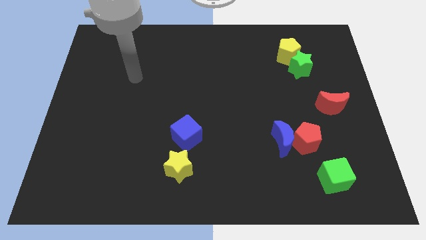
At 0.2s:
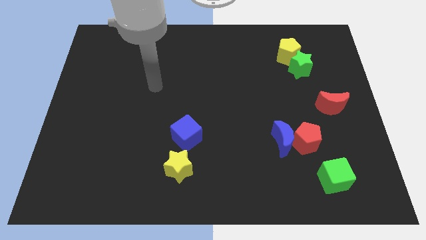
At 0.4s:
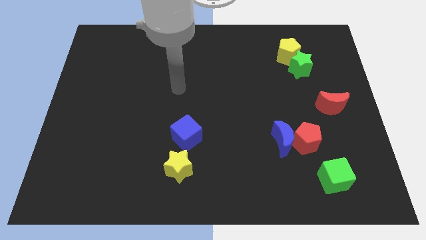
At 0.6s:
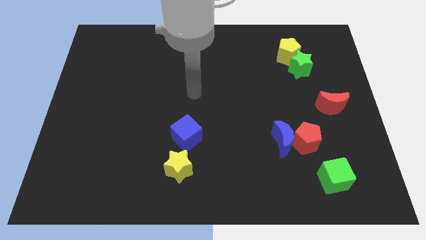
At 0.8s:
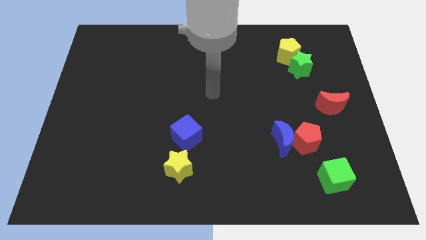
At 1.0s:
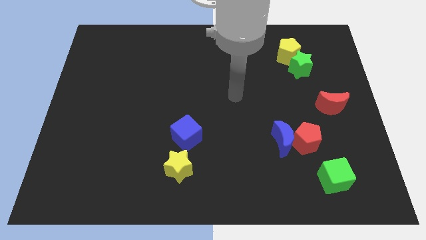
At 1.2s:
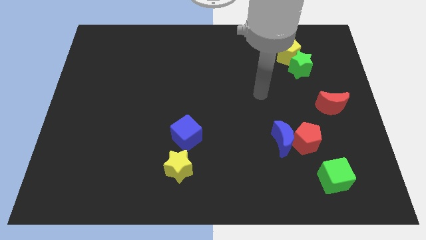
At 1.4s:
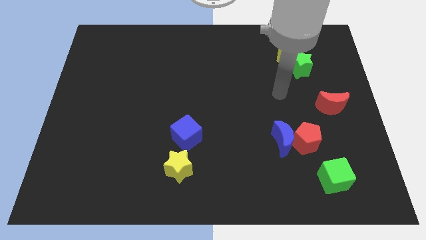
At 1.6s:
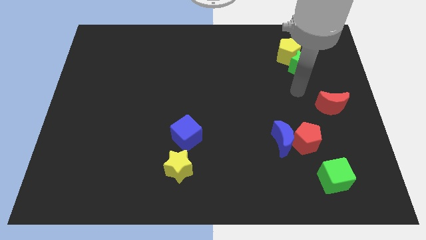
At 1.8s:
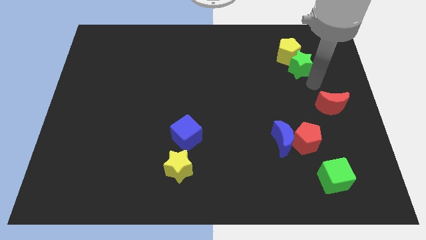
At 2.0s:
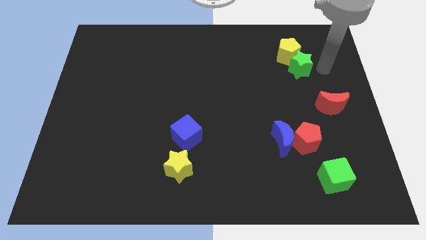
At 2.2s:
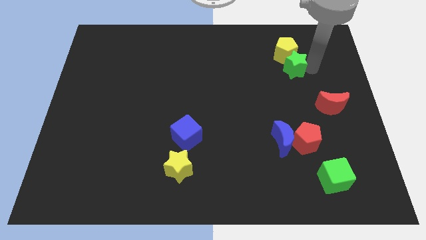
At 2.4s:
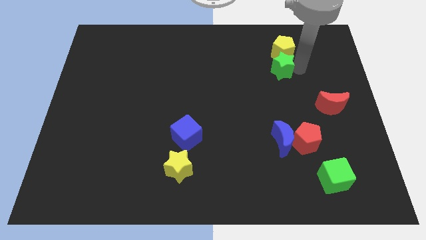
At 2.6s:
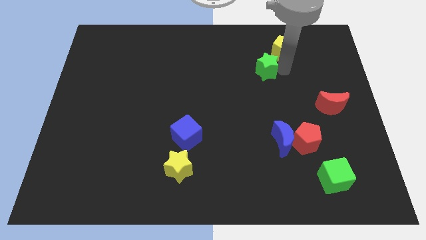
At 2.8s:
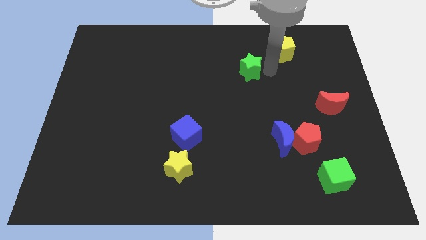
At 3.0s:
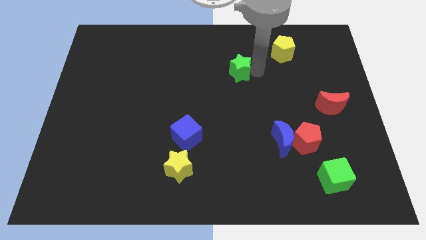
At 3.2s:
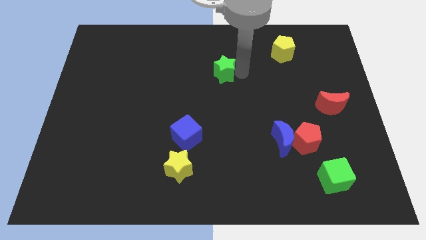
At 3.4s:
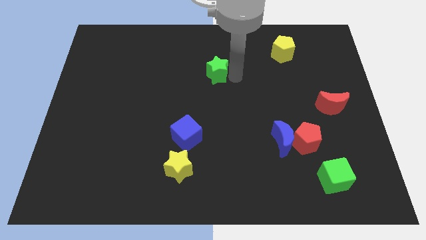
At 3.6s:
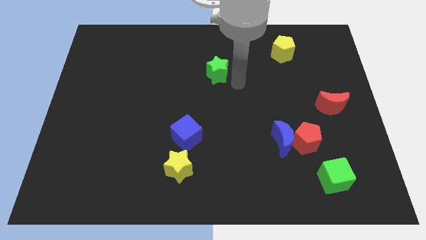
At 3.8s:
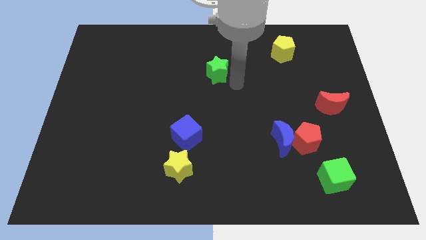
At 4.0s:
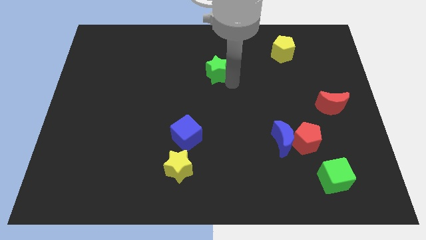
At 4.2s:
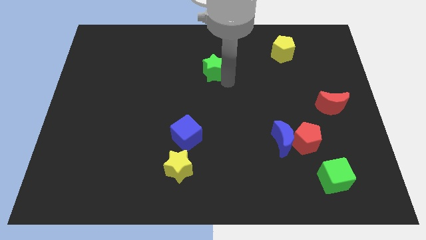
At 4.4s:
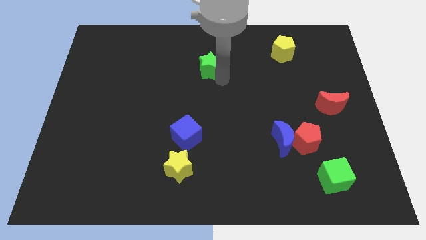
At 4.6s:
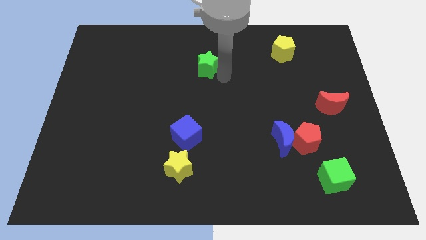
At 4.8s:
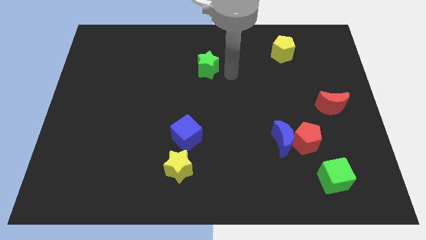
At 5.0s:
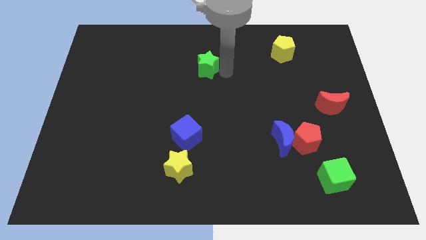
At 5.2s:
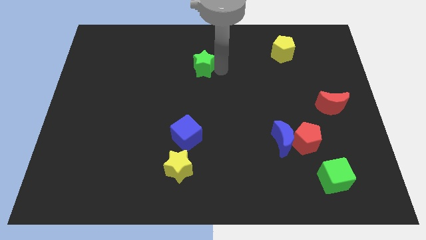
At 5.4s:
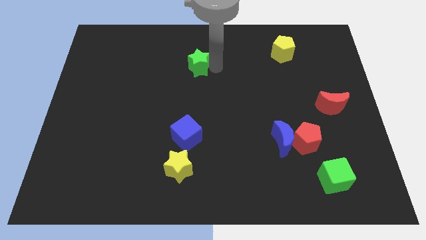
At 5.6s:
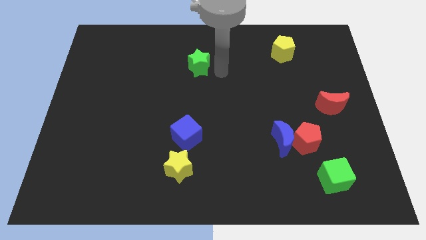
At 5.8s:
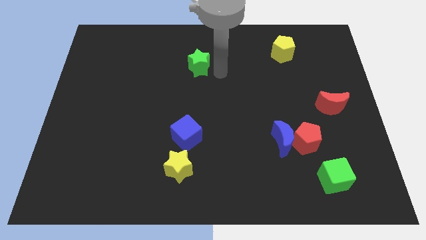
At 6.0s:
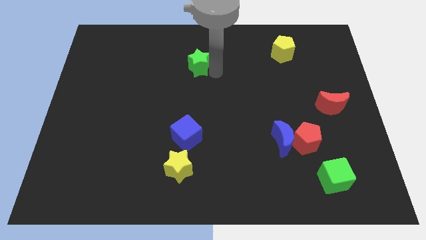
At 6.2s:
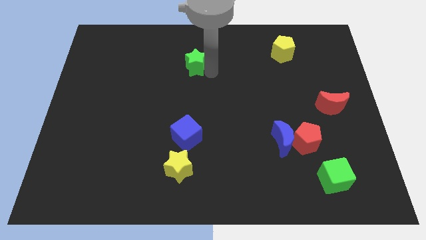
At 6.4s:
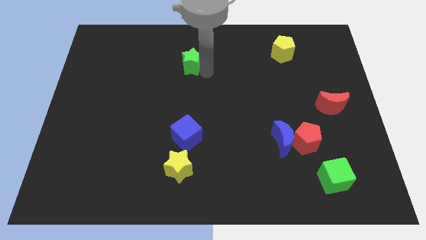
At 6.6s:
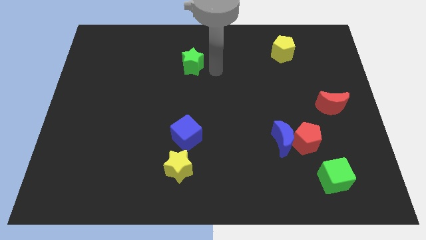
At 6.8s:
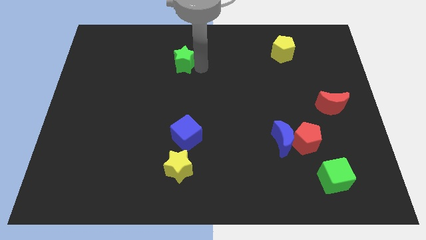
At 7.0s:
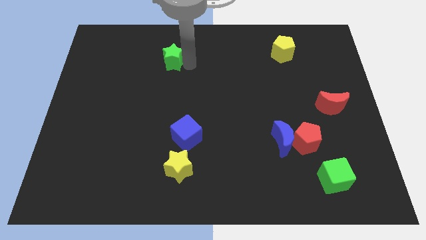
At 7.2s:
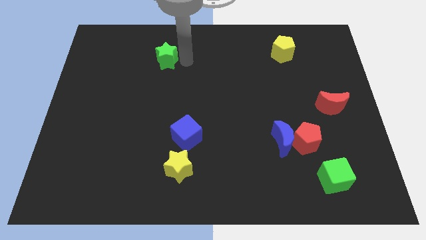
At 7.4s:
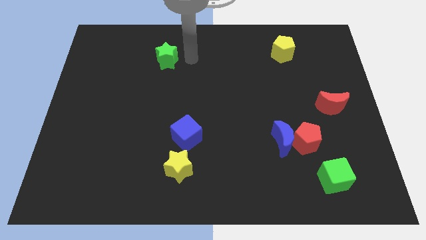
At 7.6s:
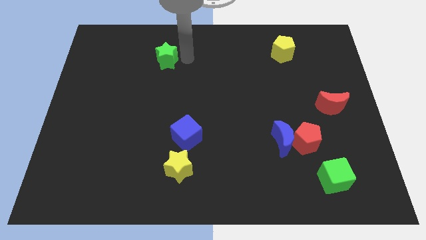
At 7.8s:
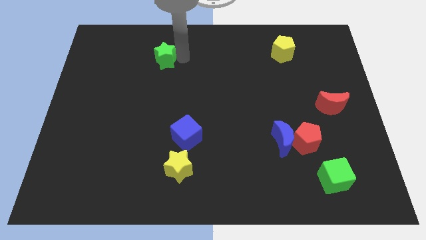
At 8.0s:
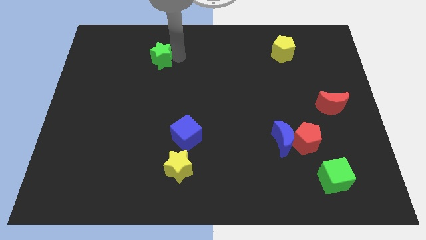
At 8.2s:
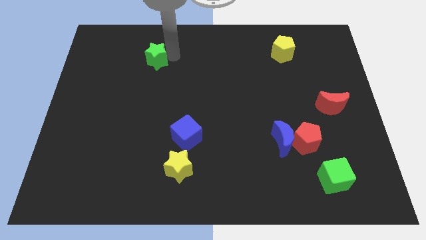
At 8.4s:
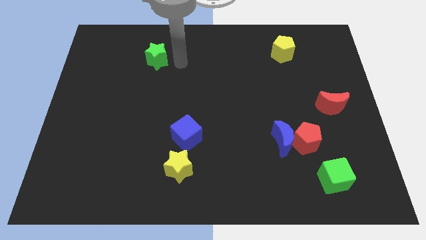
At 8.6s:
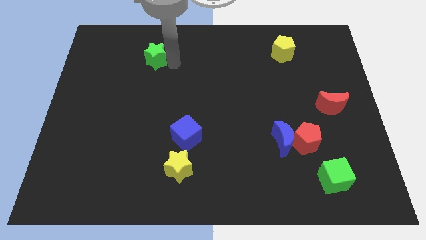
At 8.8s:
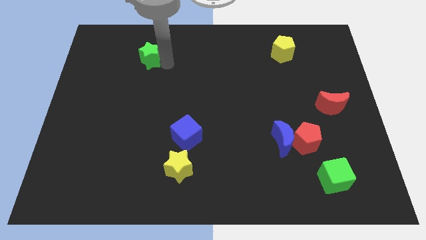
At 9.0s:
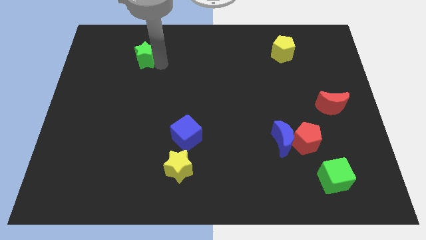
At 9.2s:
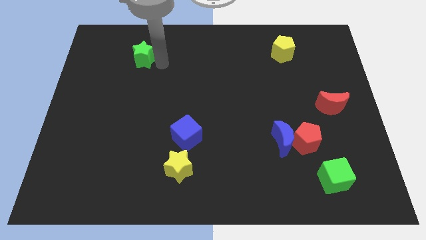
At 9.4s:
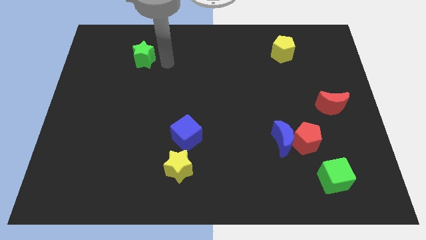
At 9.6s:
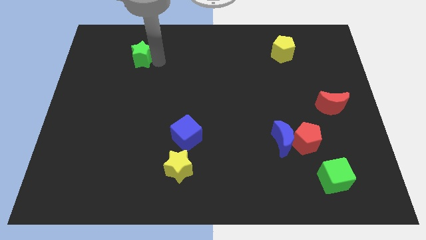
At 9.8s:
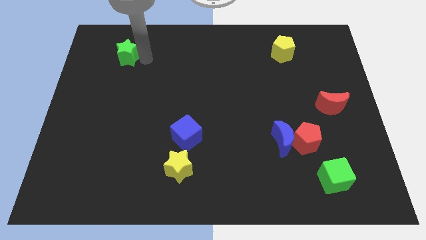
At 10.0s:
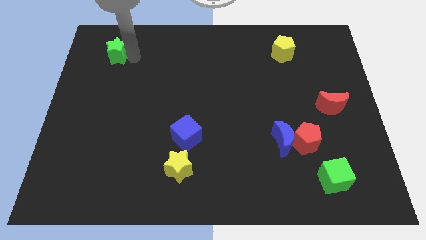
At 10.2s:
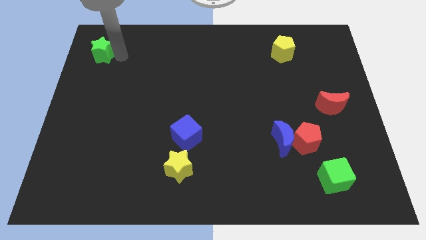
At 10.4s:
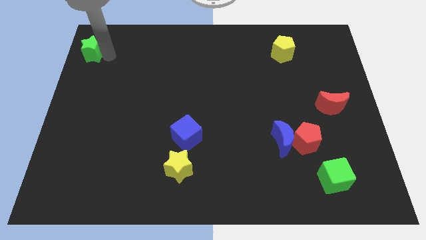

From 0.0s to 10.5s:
put the green star to the top left of the board

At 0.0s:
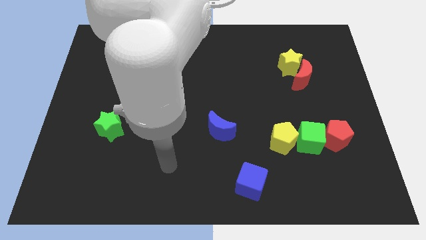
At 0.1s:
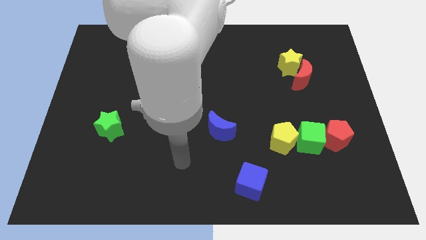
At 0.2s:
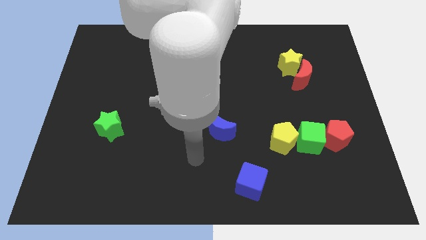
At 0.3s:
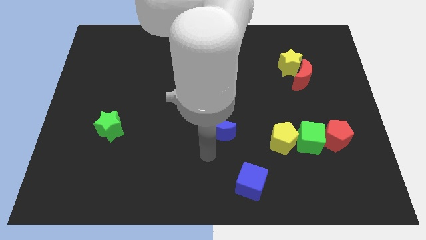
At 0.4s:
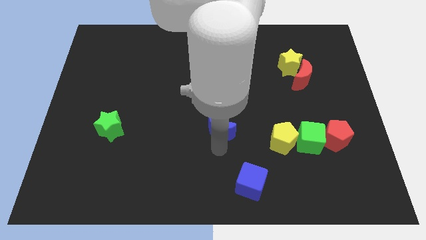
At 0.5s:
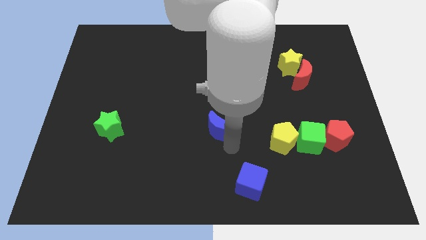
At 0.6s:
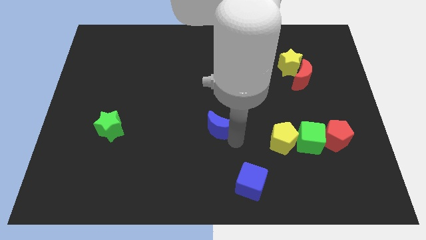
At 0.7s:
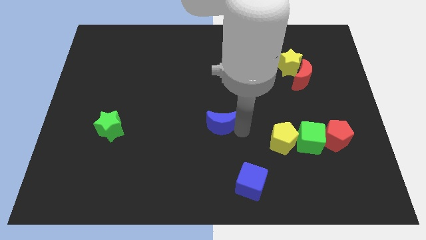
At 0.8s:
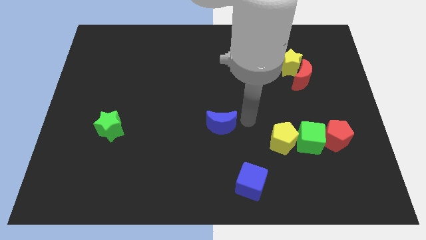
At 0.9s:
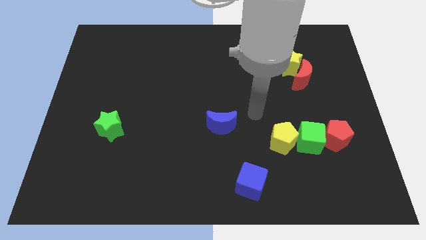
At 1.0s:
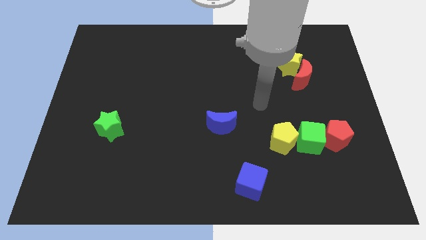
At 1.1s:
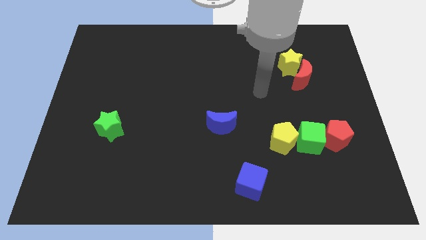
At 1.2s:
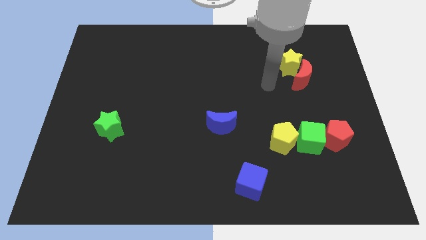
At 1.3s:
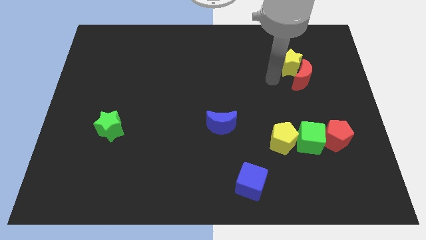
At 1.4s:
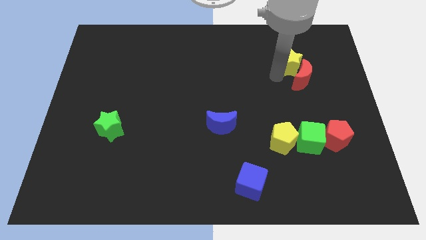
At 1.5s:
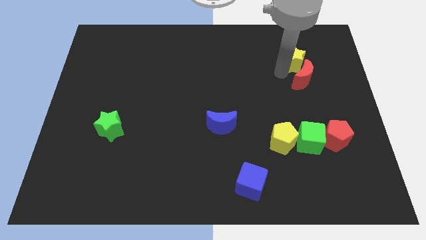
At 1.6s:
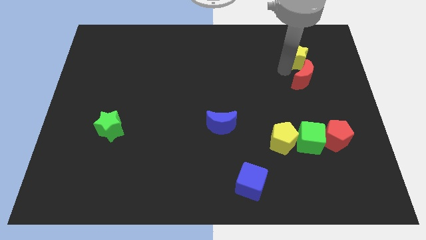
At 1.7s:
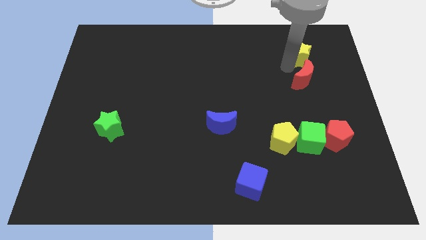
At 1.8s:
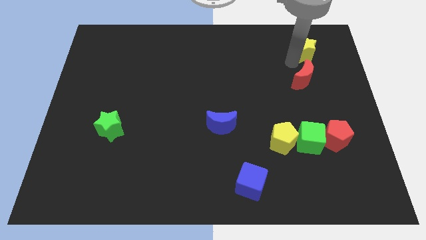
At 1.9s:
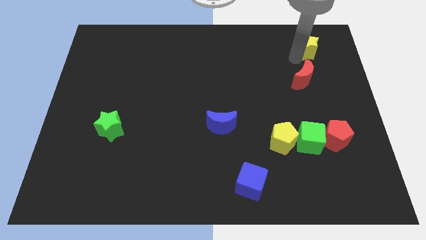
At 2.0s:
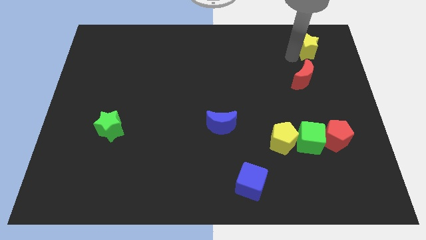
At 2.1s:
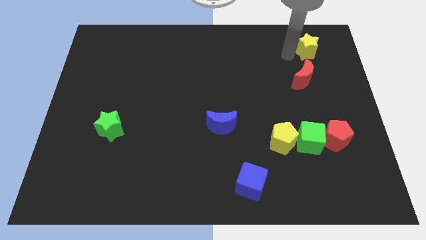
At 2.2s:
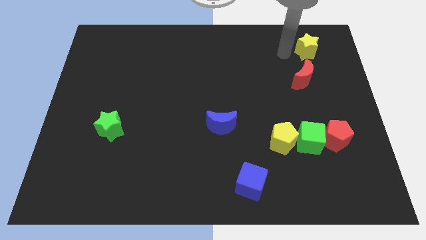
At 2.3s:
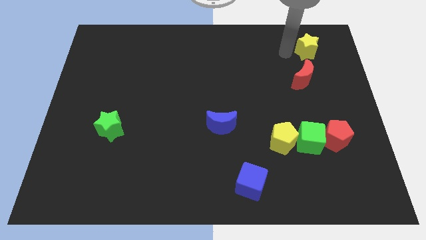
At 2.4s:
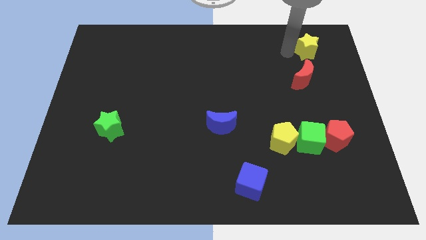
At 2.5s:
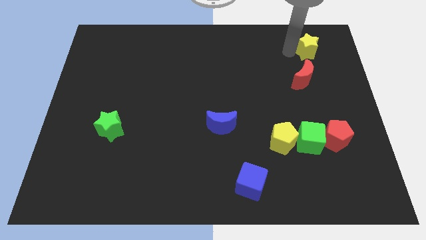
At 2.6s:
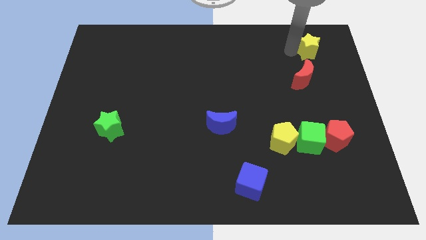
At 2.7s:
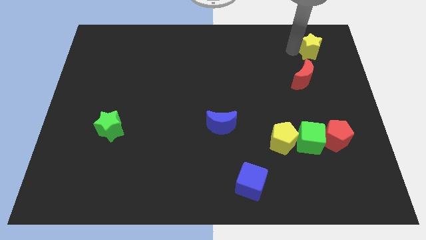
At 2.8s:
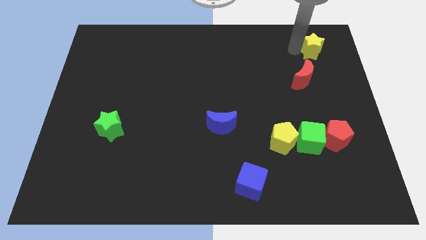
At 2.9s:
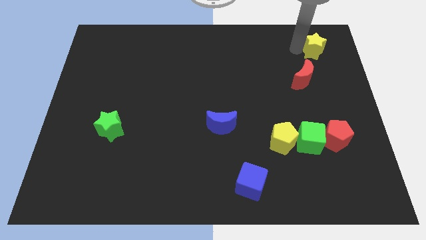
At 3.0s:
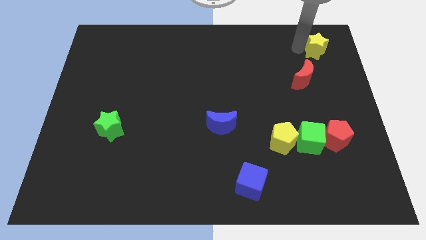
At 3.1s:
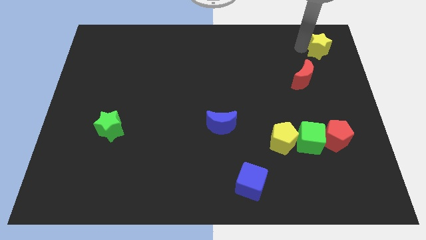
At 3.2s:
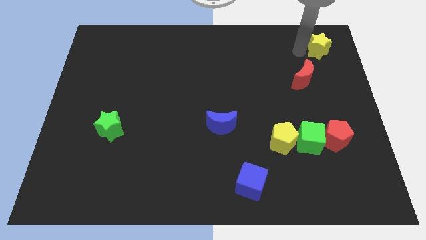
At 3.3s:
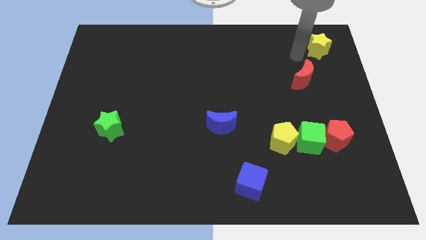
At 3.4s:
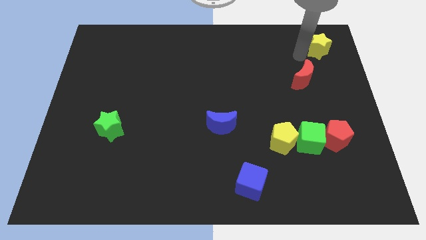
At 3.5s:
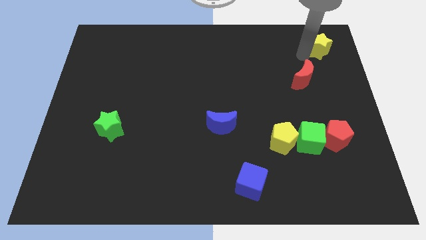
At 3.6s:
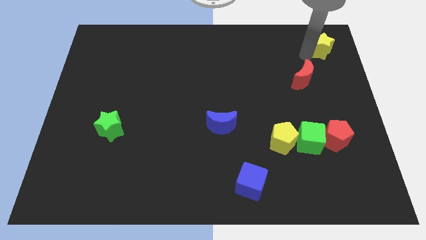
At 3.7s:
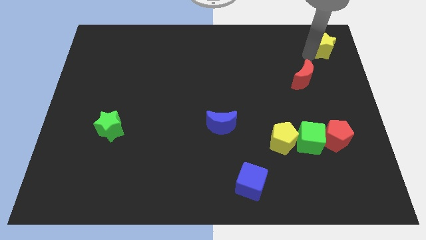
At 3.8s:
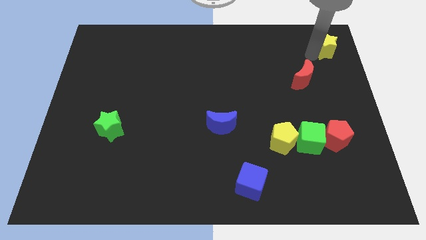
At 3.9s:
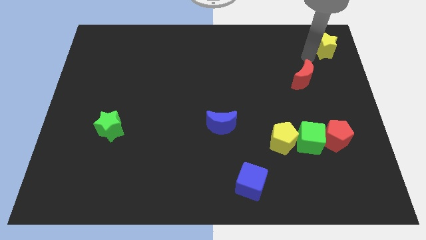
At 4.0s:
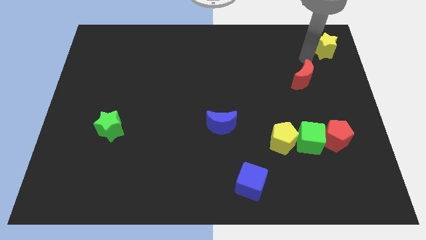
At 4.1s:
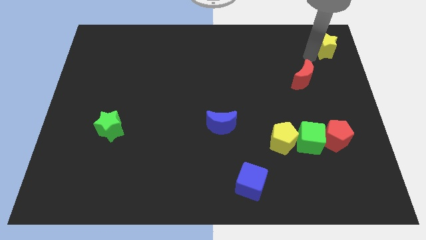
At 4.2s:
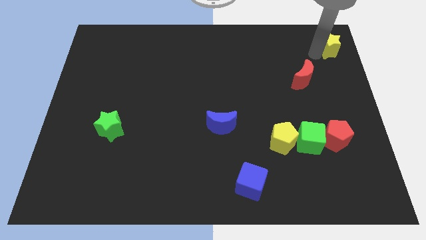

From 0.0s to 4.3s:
move the yellow star to the upper right corner
